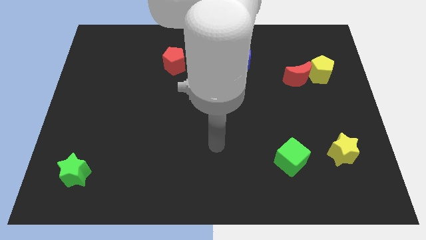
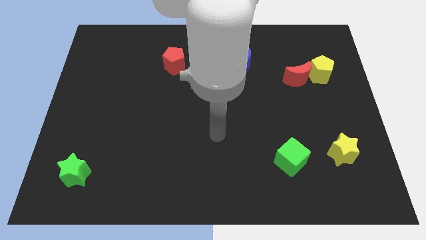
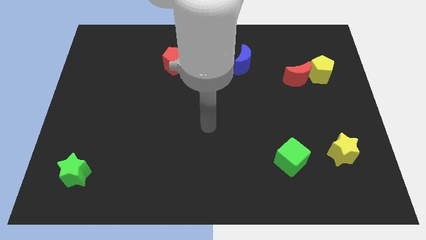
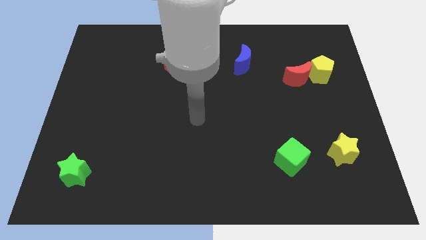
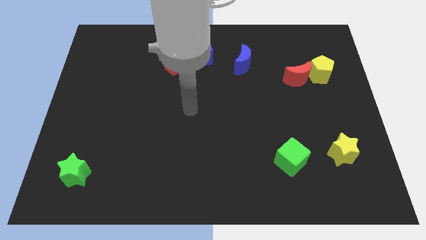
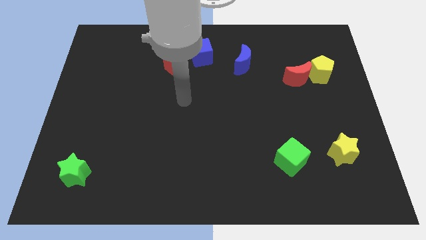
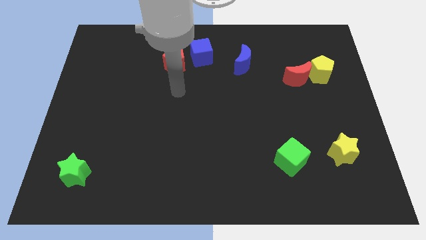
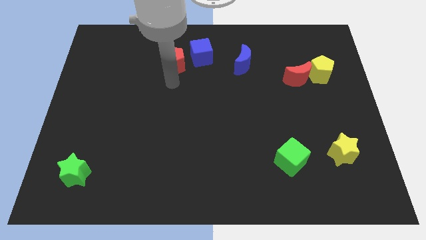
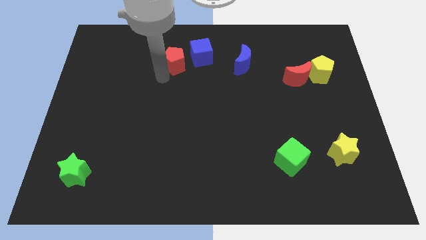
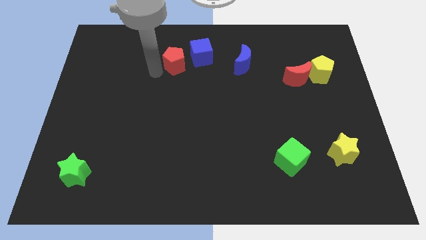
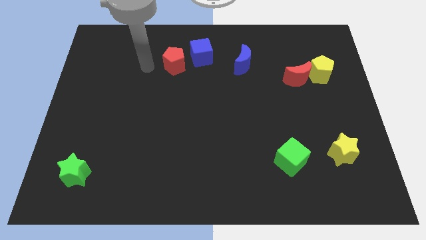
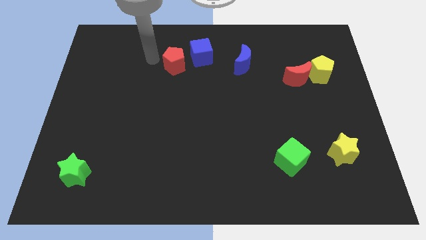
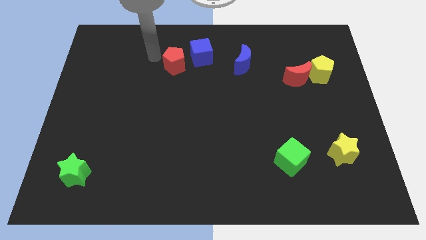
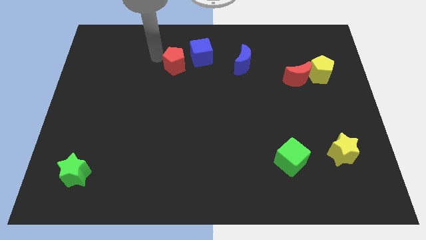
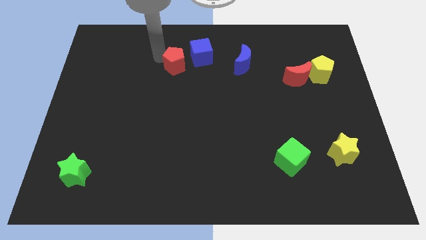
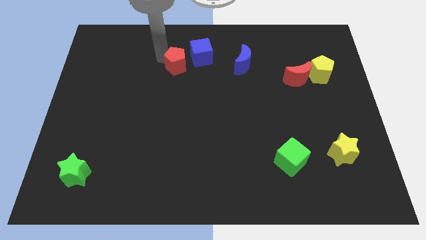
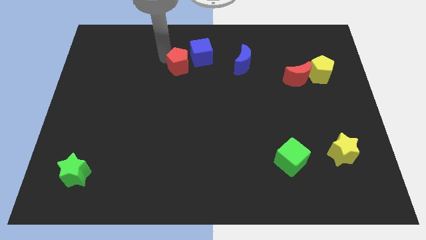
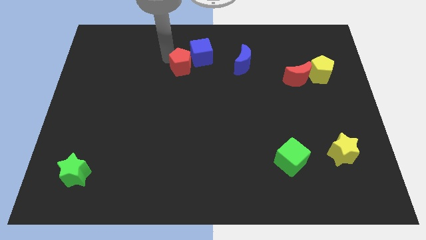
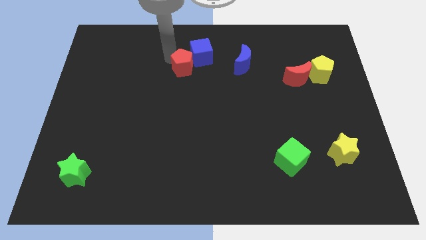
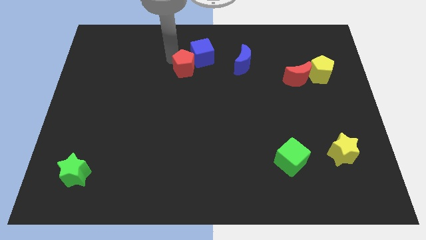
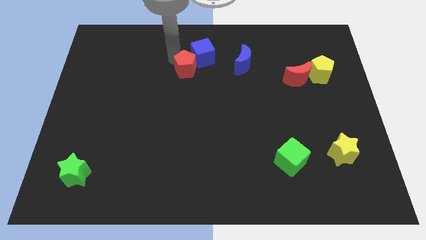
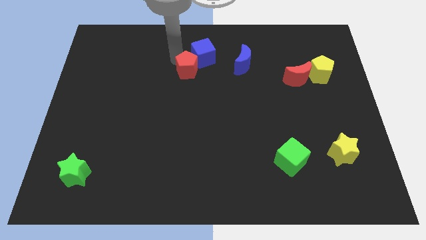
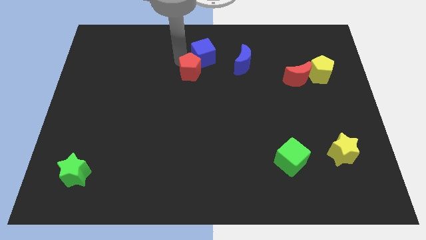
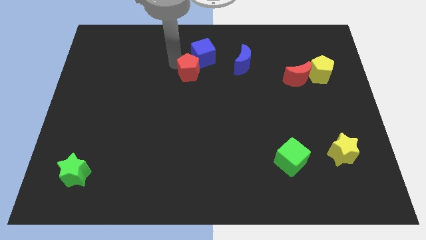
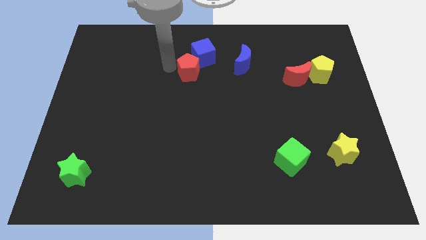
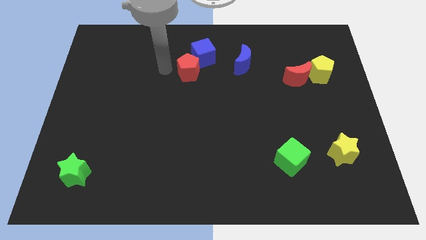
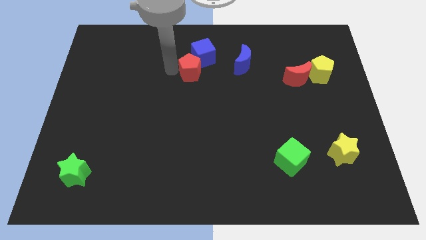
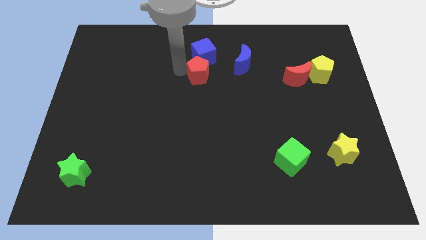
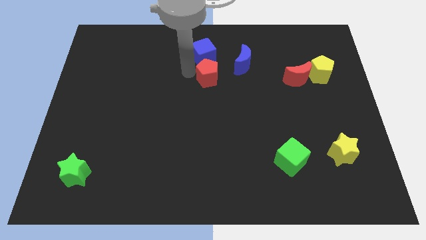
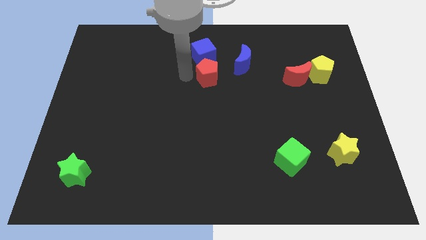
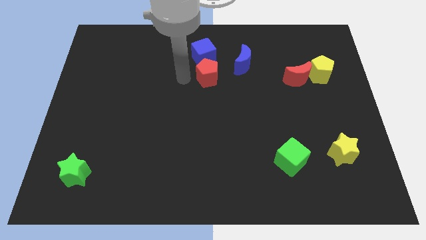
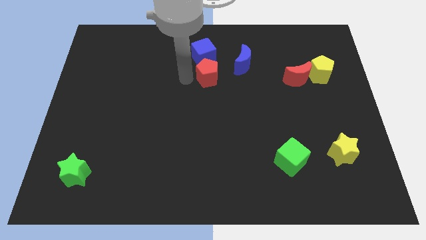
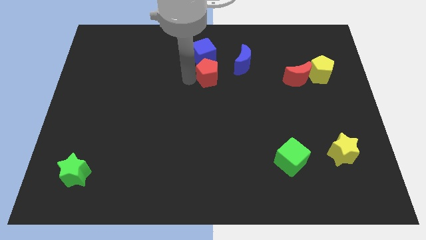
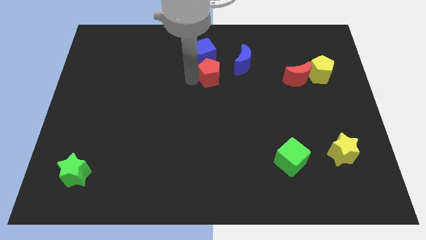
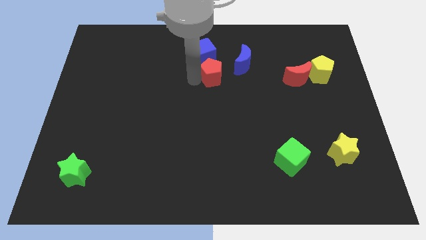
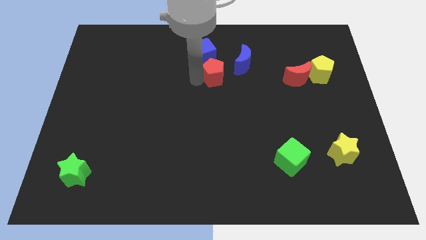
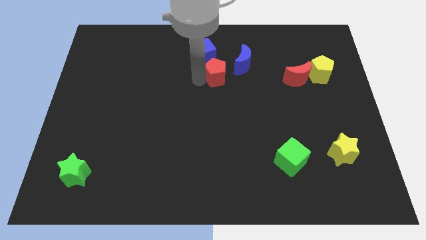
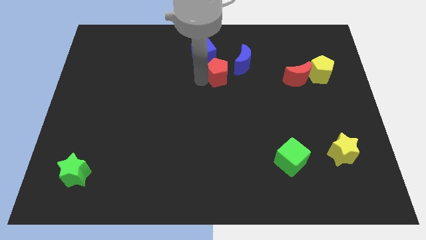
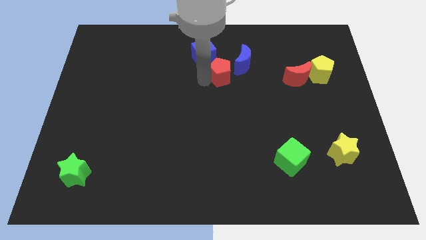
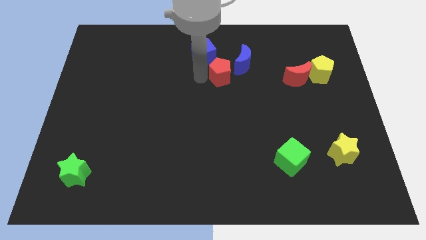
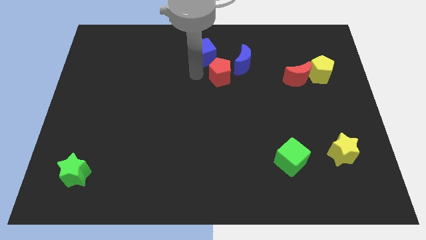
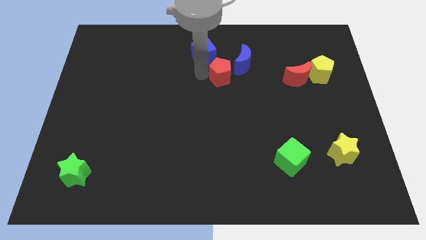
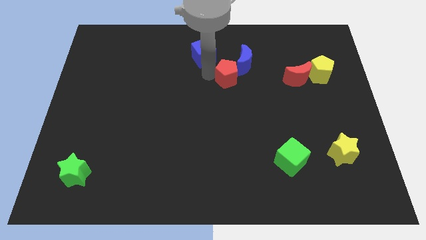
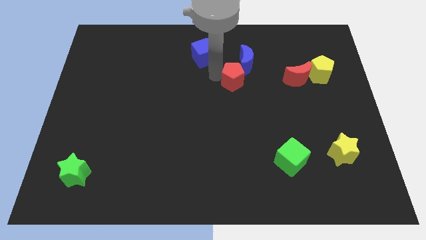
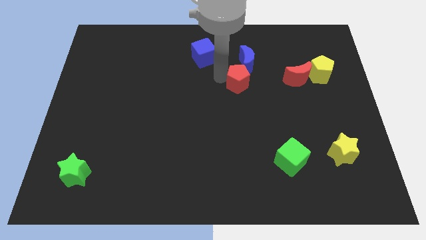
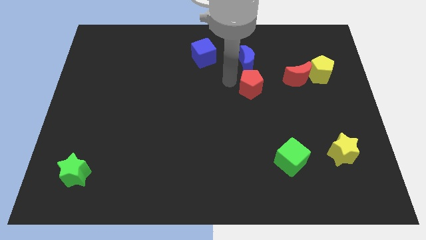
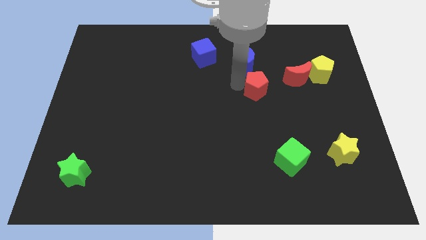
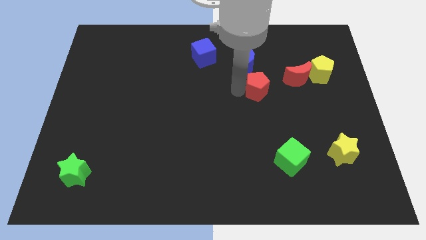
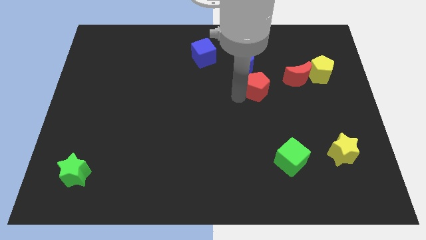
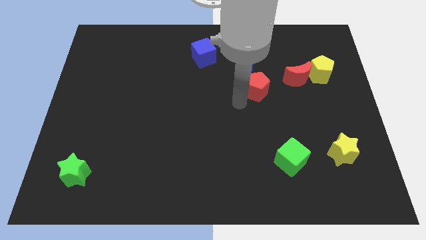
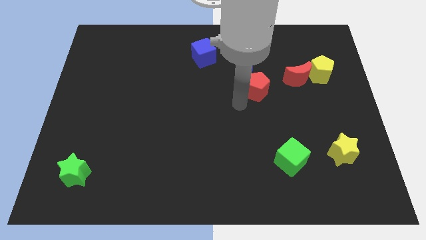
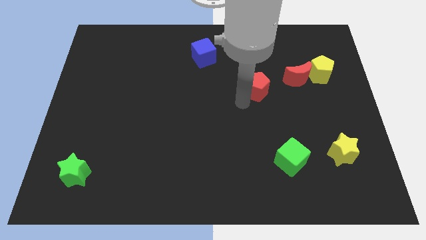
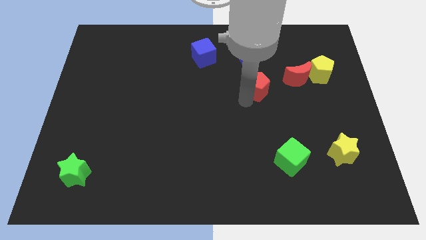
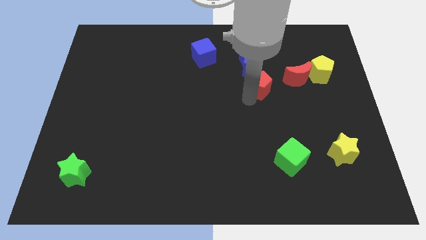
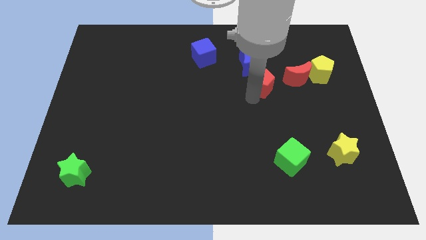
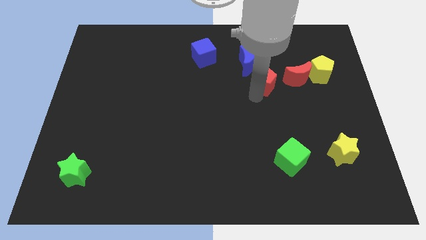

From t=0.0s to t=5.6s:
push the red pentagon right

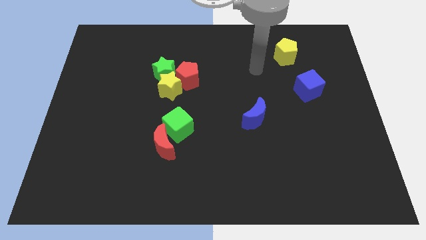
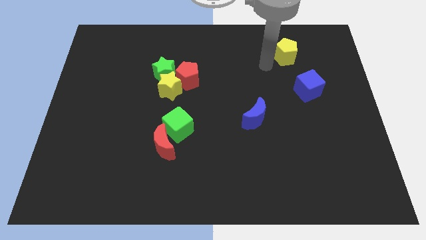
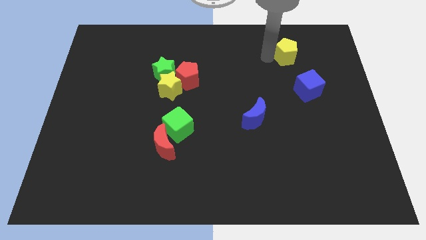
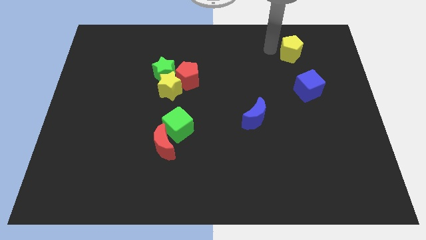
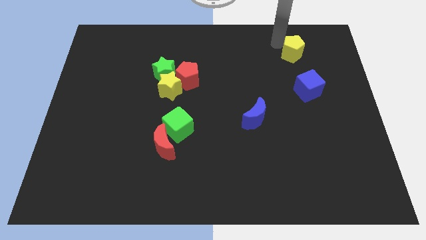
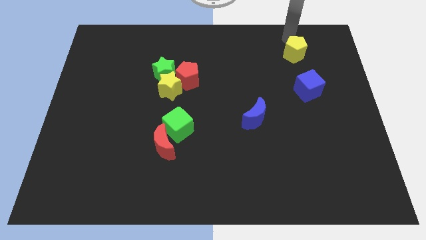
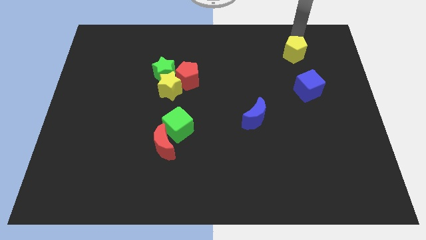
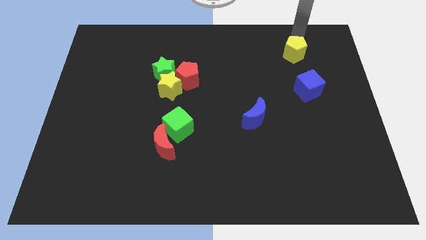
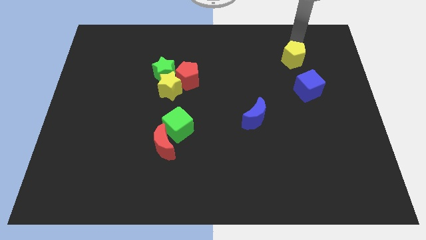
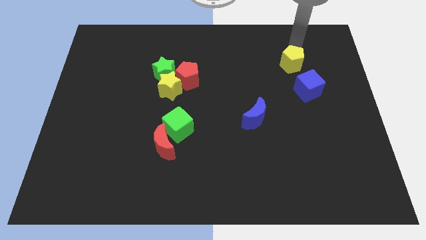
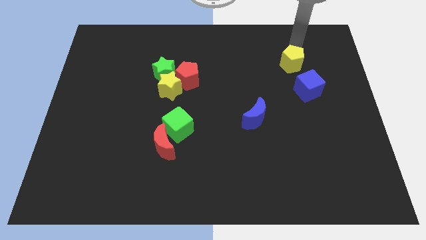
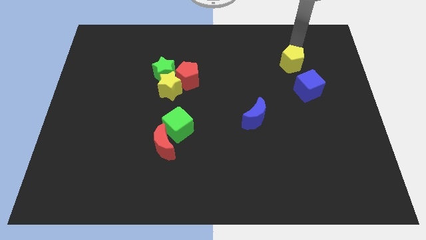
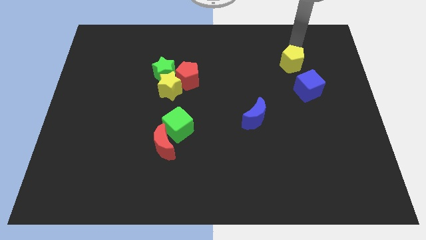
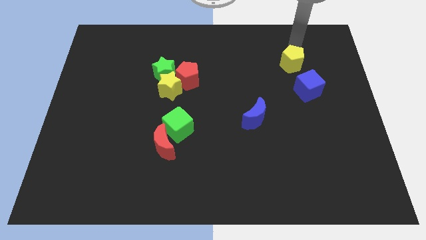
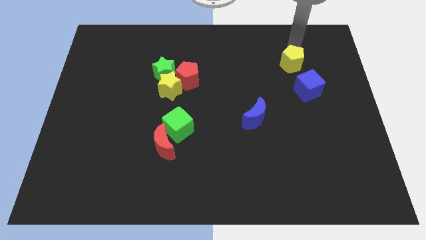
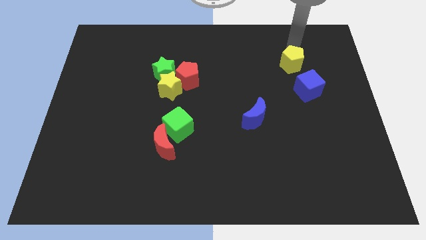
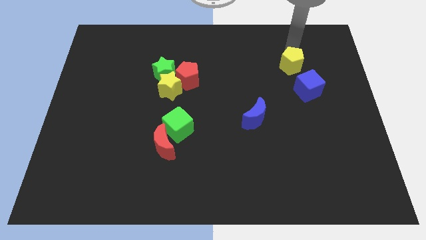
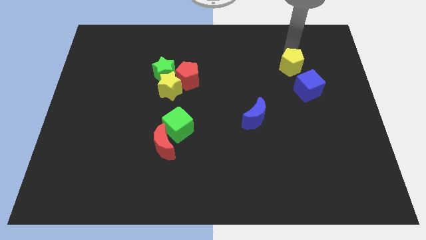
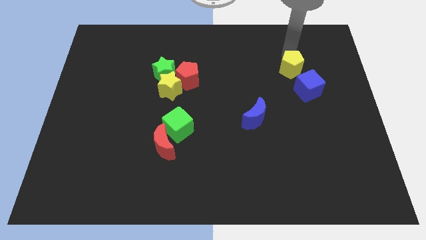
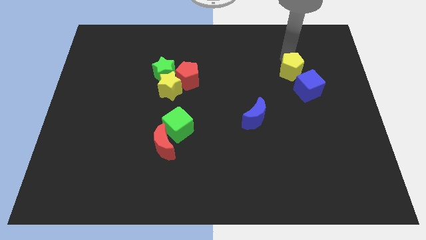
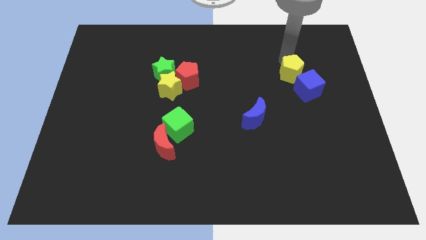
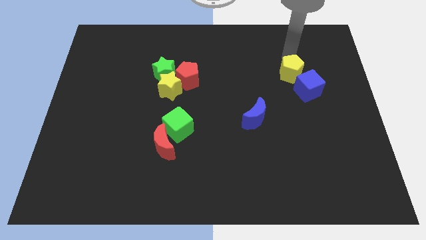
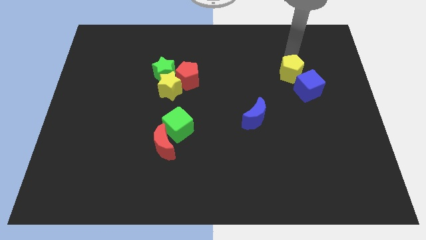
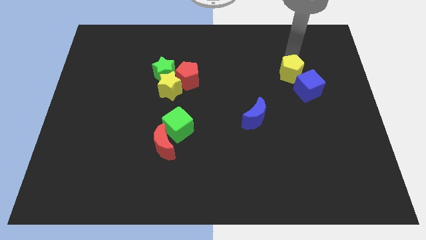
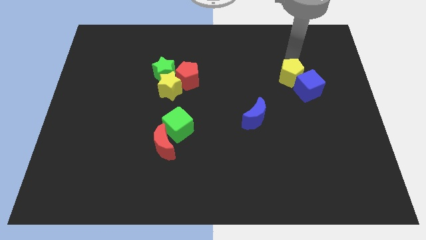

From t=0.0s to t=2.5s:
slide the yellow pentagon downwards slightly
